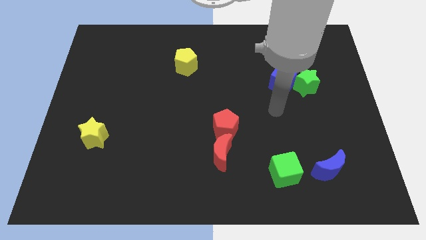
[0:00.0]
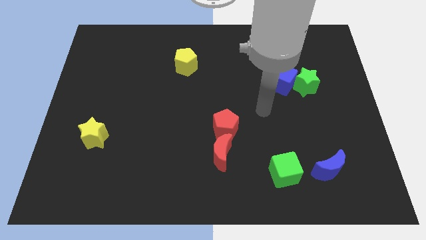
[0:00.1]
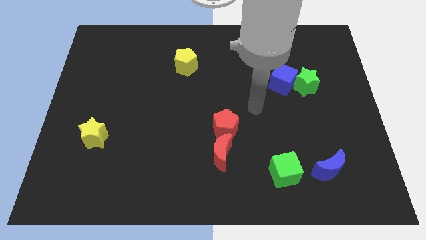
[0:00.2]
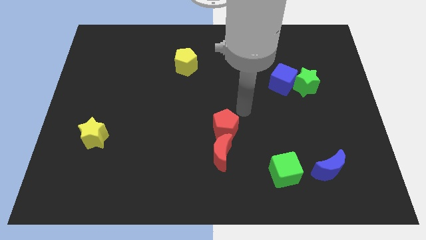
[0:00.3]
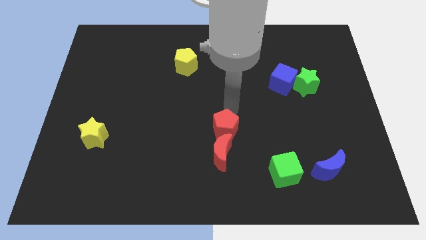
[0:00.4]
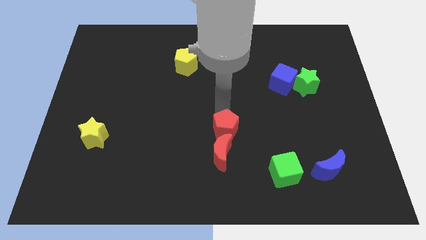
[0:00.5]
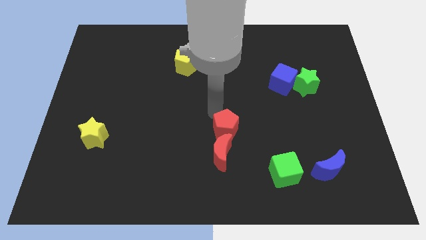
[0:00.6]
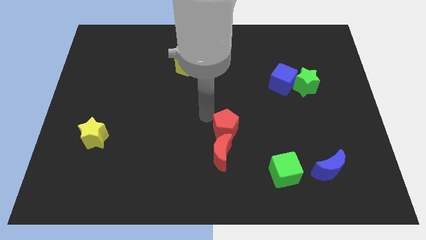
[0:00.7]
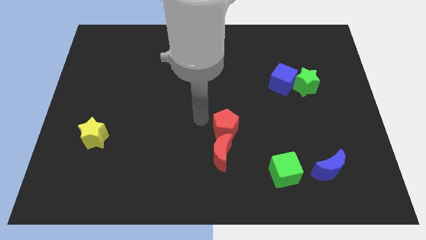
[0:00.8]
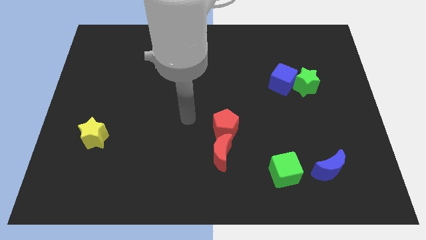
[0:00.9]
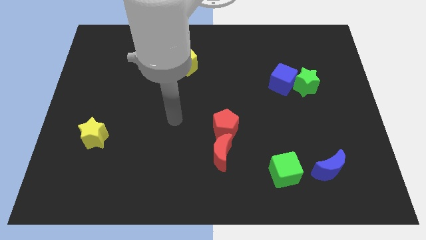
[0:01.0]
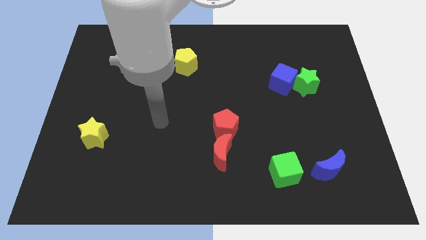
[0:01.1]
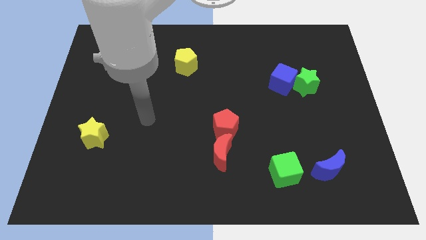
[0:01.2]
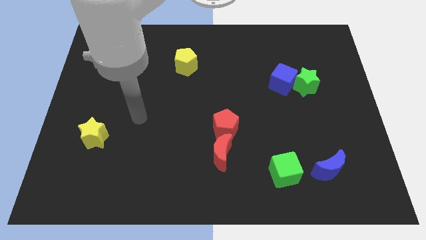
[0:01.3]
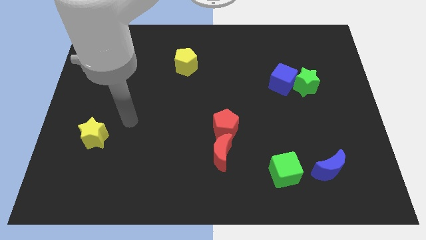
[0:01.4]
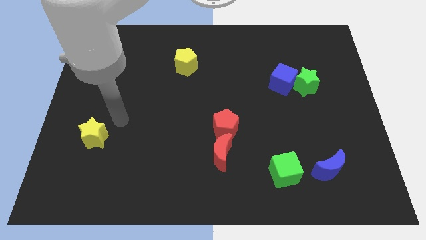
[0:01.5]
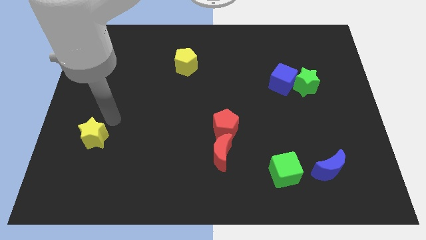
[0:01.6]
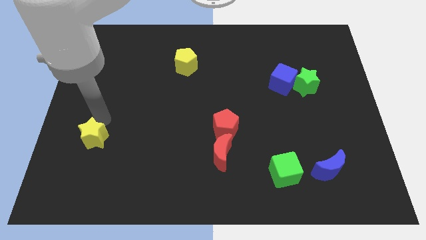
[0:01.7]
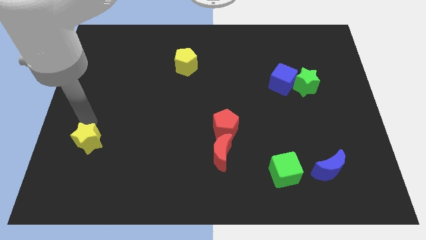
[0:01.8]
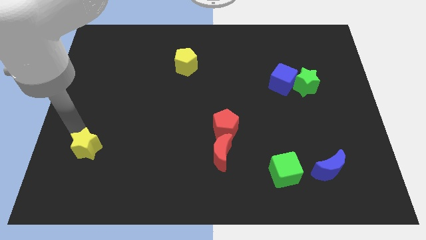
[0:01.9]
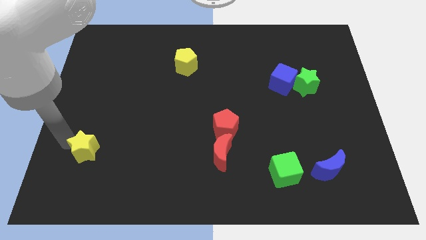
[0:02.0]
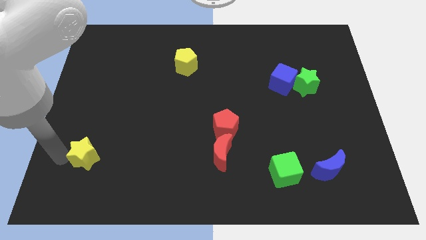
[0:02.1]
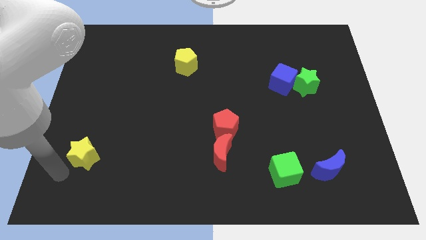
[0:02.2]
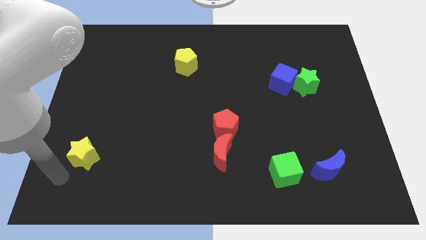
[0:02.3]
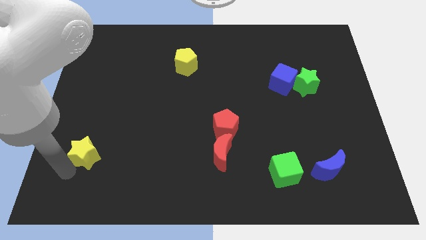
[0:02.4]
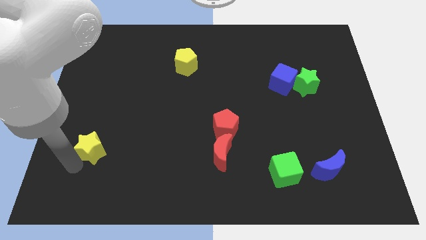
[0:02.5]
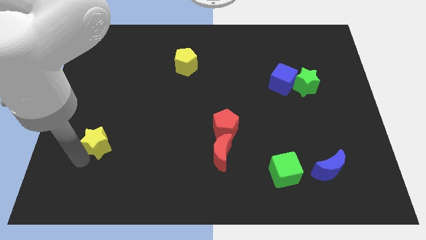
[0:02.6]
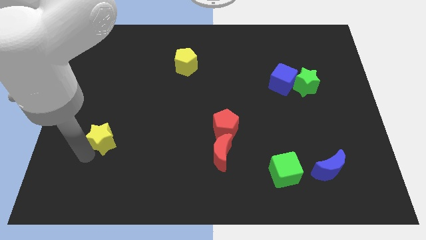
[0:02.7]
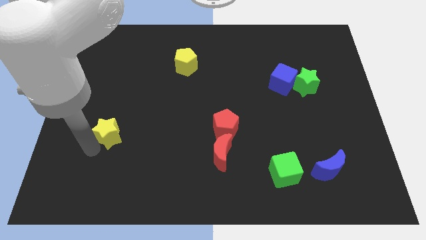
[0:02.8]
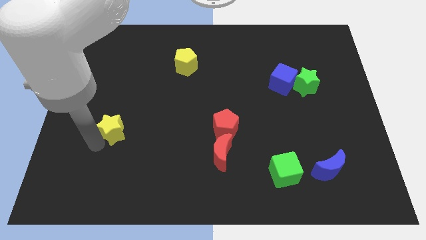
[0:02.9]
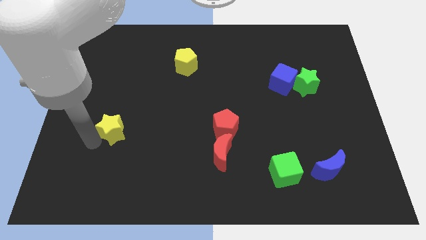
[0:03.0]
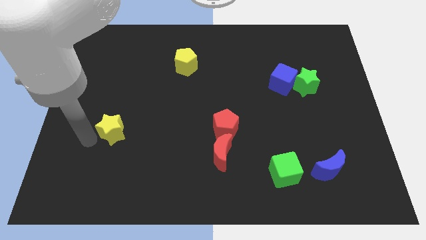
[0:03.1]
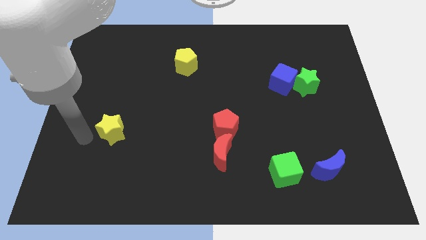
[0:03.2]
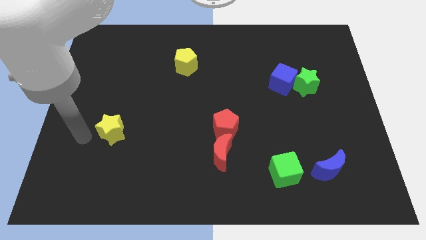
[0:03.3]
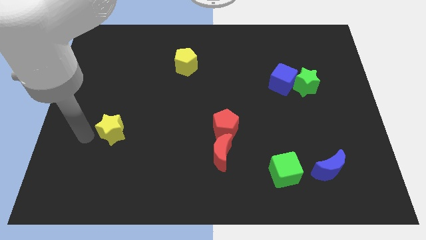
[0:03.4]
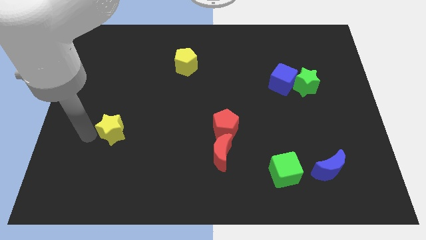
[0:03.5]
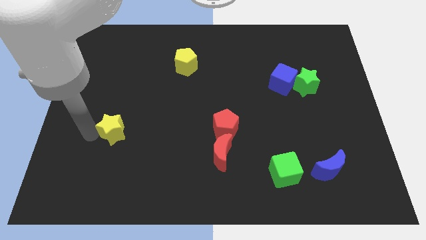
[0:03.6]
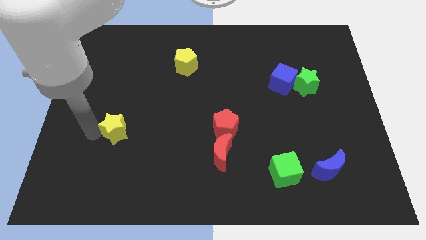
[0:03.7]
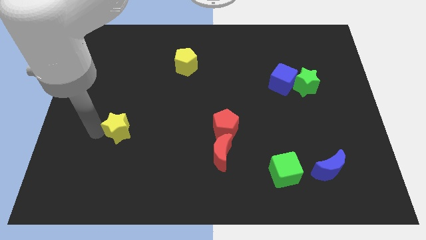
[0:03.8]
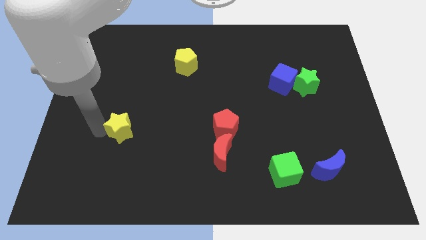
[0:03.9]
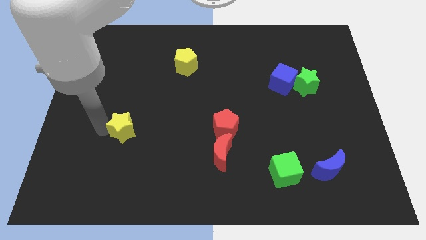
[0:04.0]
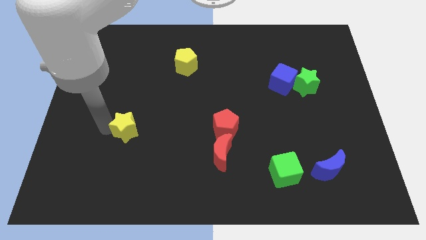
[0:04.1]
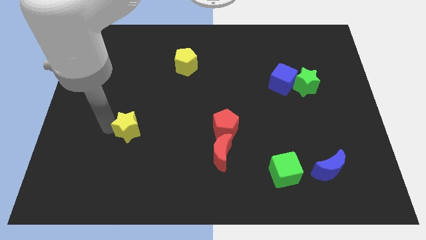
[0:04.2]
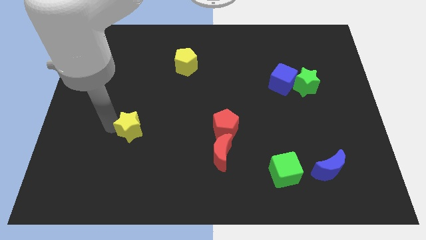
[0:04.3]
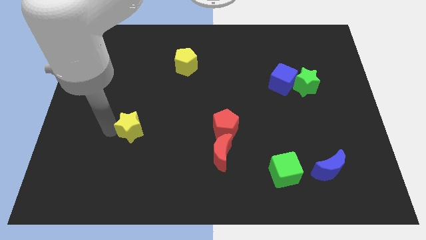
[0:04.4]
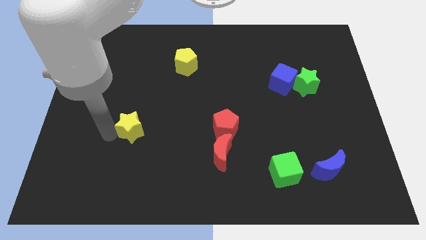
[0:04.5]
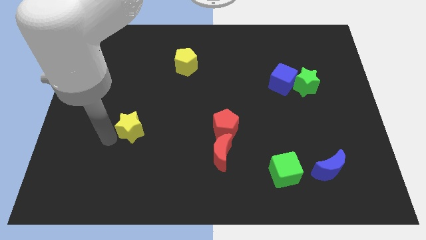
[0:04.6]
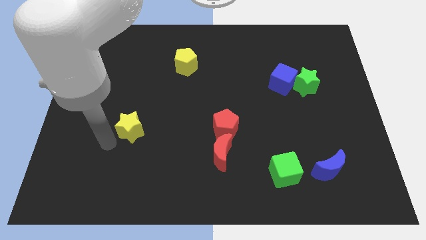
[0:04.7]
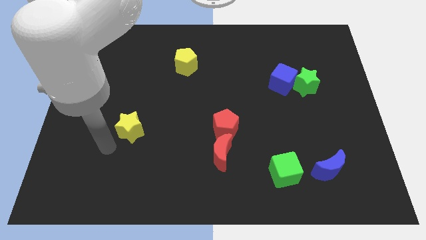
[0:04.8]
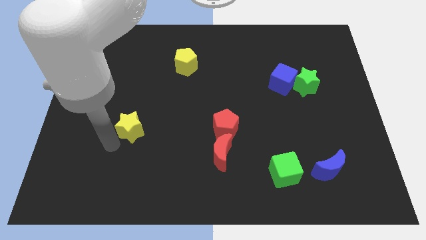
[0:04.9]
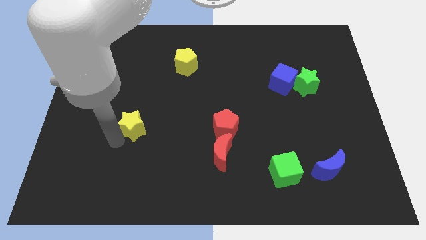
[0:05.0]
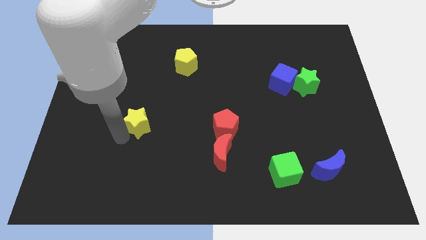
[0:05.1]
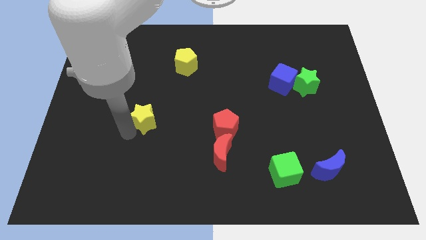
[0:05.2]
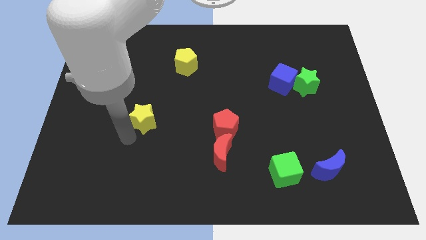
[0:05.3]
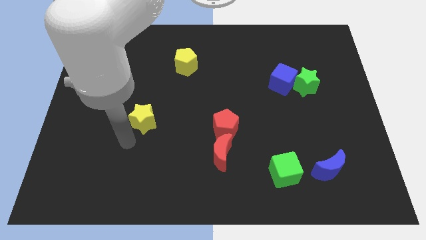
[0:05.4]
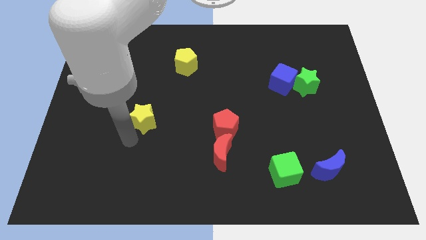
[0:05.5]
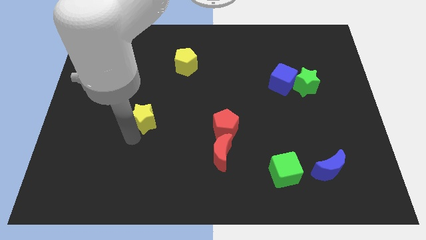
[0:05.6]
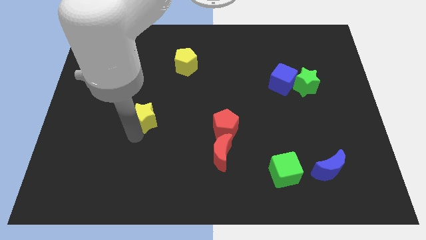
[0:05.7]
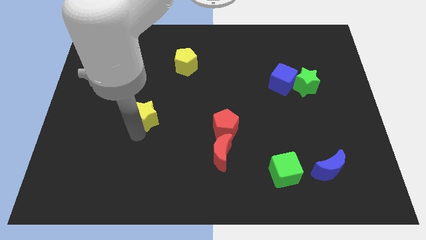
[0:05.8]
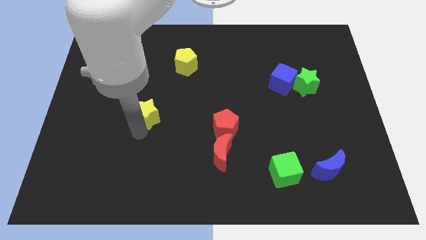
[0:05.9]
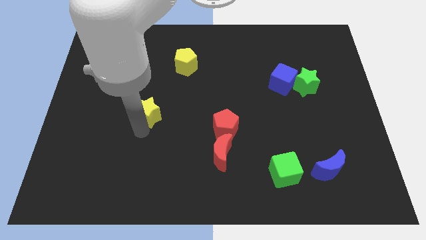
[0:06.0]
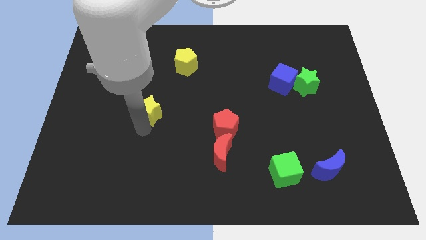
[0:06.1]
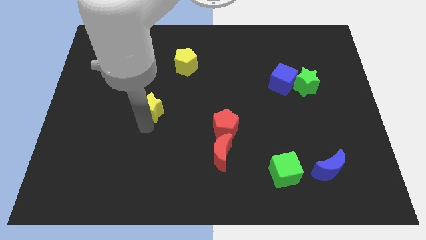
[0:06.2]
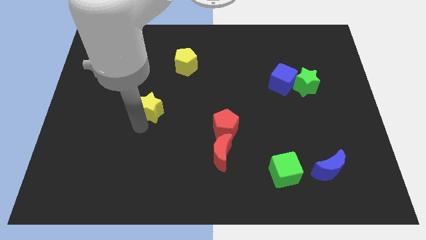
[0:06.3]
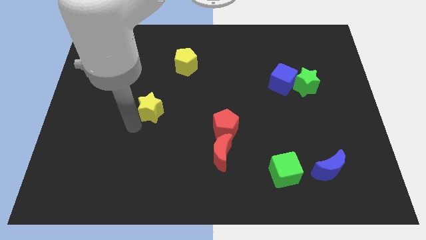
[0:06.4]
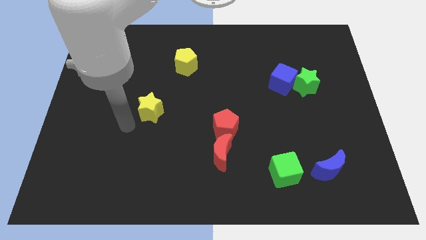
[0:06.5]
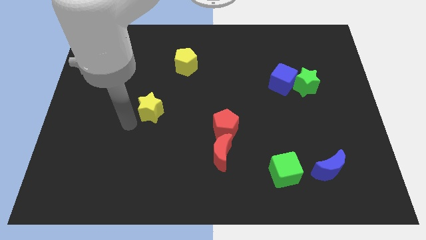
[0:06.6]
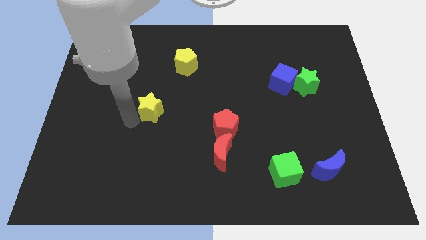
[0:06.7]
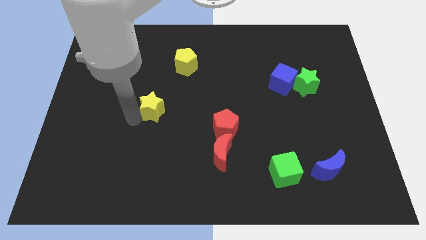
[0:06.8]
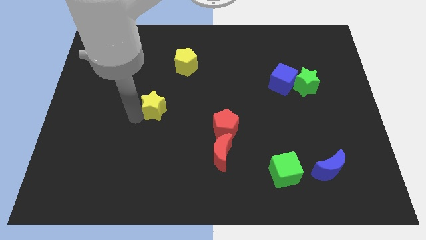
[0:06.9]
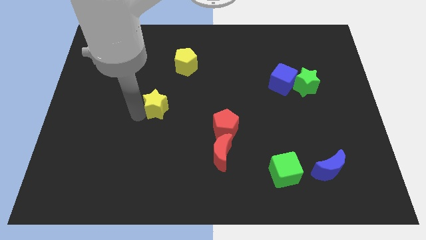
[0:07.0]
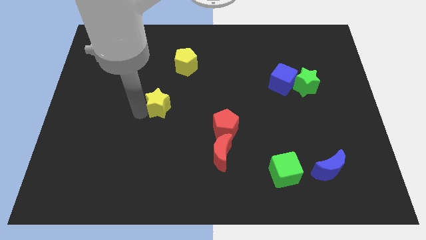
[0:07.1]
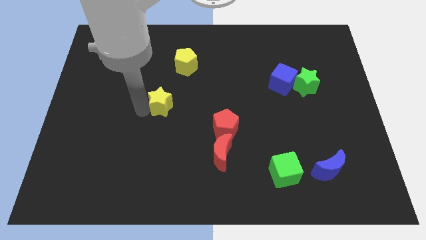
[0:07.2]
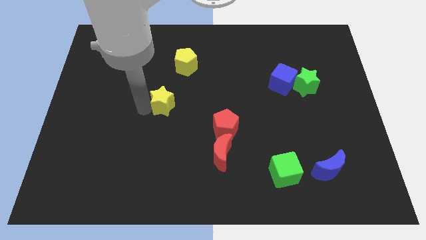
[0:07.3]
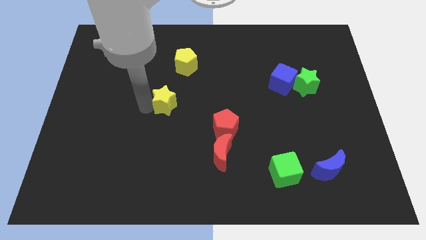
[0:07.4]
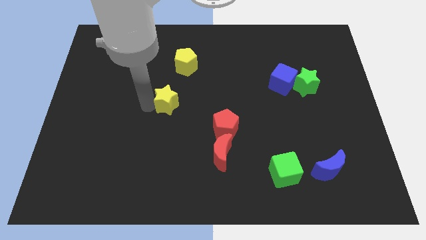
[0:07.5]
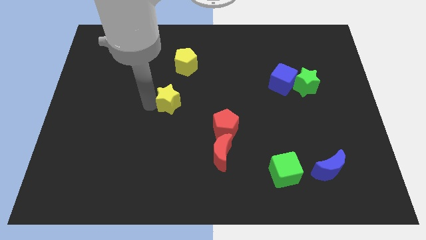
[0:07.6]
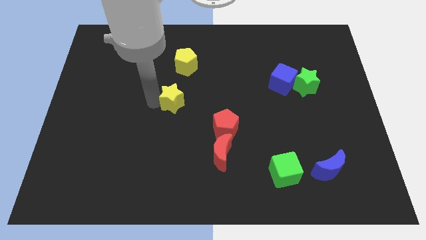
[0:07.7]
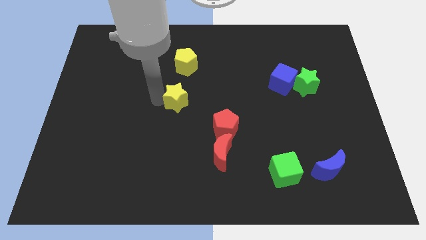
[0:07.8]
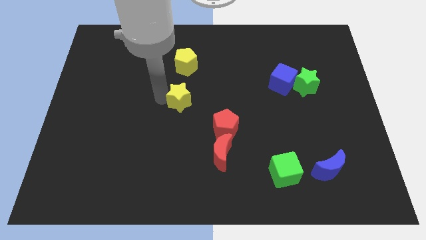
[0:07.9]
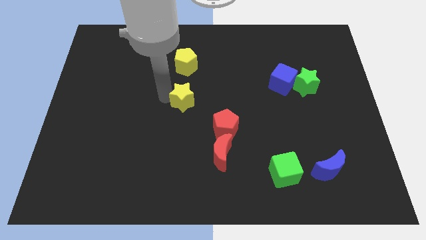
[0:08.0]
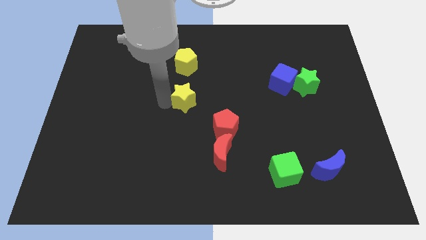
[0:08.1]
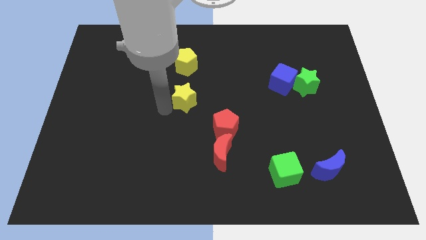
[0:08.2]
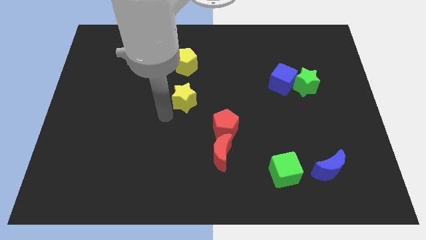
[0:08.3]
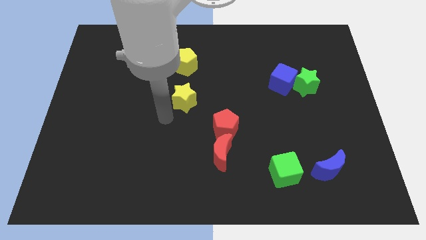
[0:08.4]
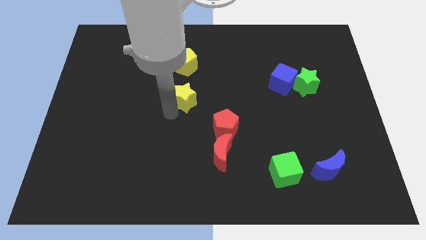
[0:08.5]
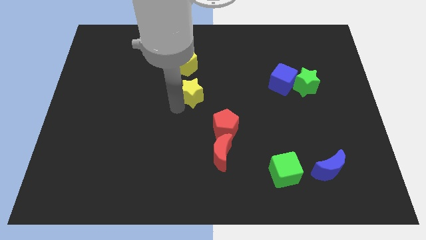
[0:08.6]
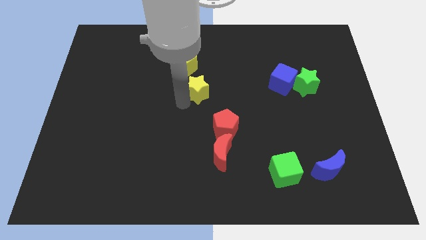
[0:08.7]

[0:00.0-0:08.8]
slide the yellow star to the bottom right side of the yellow pentagon
